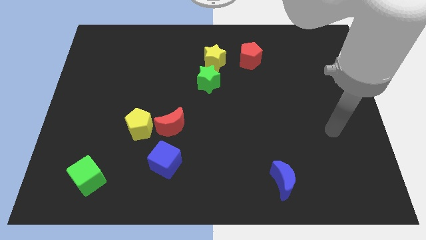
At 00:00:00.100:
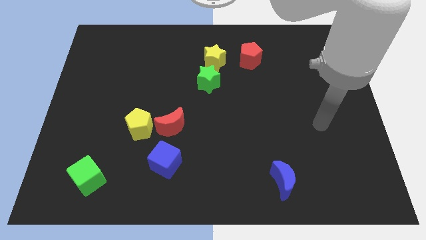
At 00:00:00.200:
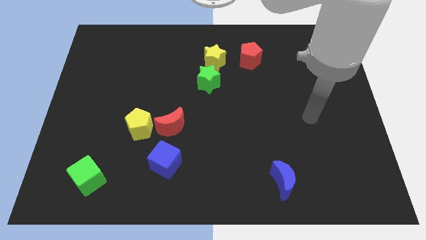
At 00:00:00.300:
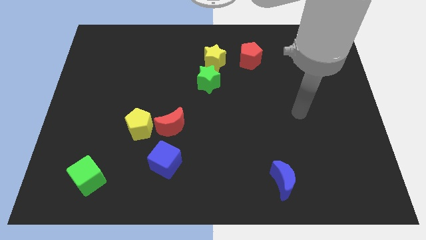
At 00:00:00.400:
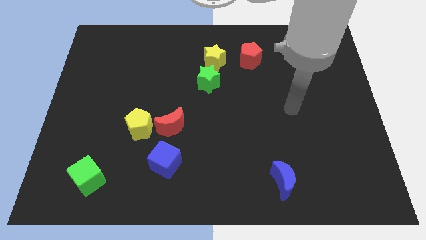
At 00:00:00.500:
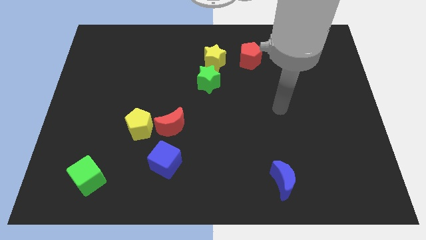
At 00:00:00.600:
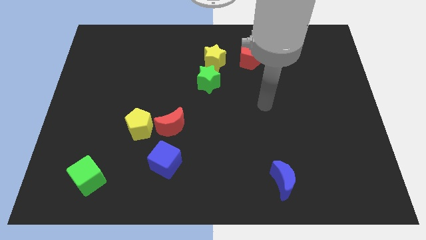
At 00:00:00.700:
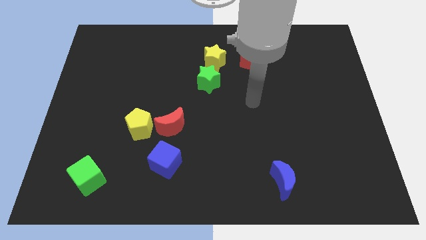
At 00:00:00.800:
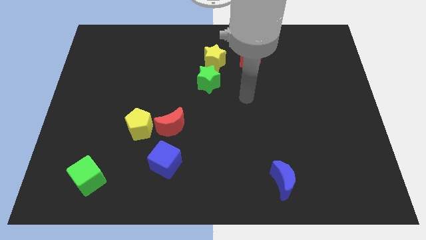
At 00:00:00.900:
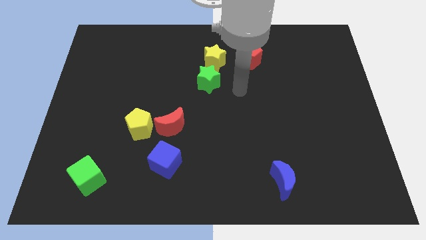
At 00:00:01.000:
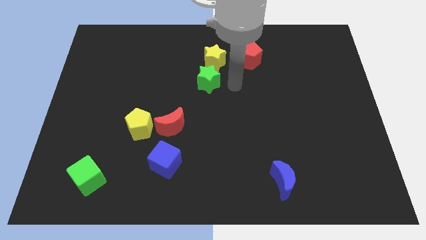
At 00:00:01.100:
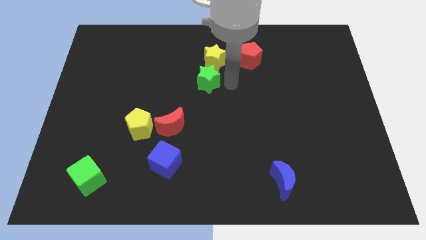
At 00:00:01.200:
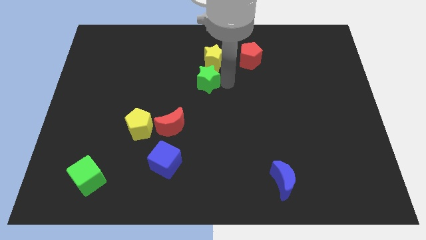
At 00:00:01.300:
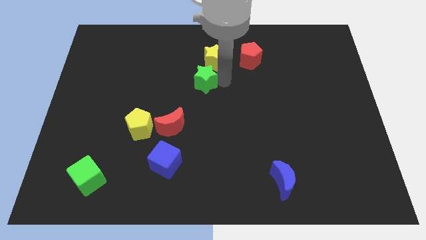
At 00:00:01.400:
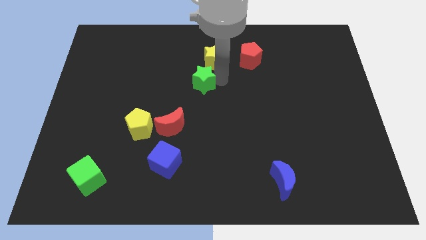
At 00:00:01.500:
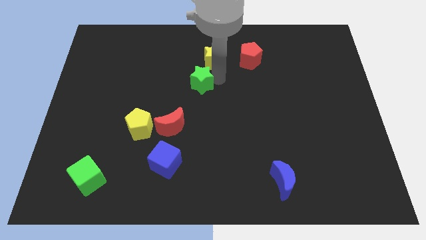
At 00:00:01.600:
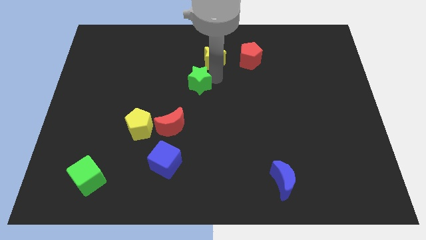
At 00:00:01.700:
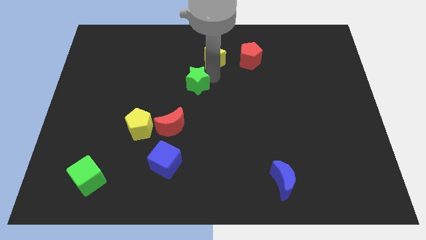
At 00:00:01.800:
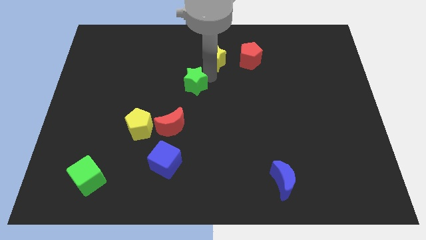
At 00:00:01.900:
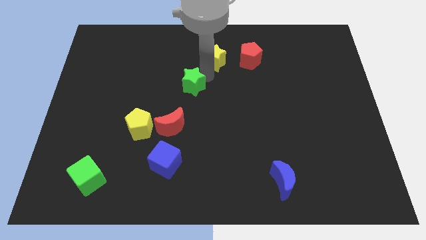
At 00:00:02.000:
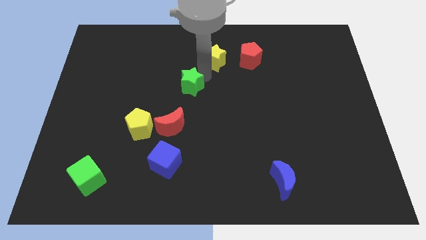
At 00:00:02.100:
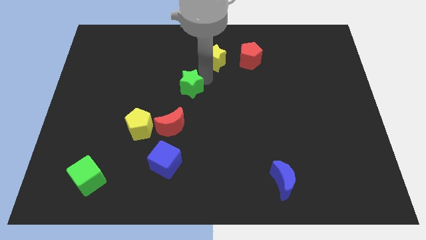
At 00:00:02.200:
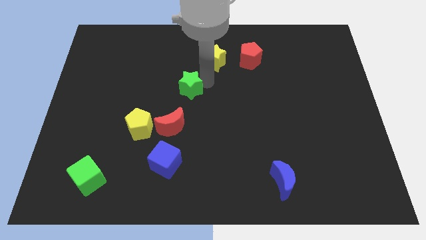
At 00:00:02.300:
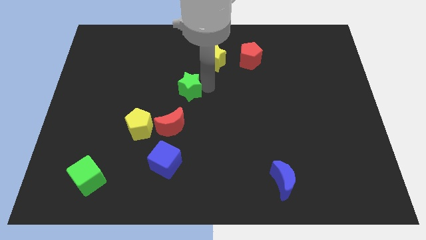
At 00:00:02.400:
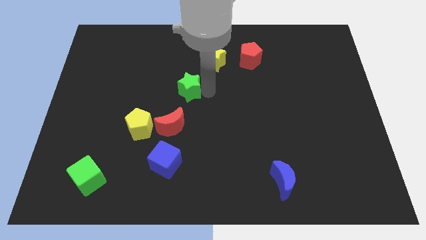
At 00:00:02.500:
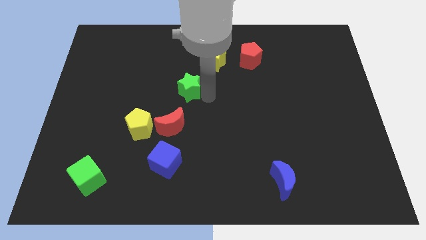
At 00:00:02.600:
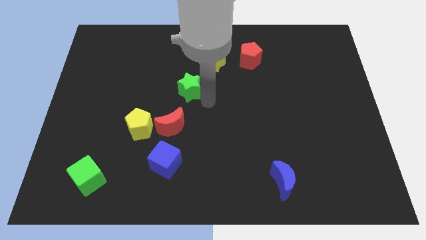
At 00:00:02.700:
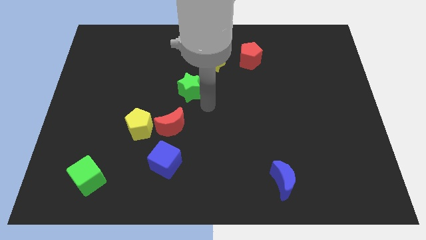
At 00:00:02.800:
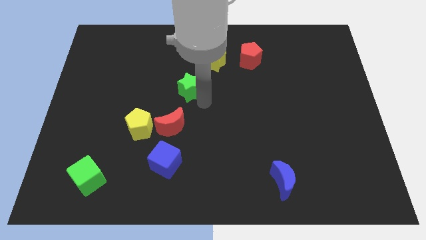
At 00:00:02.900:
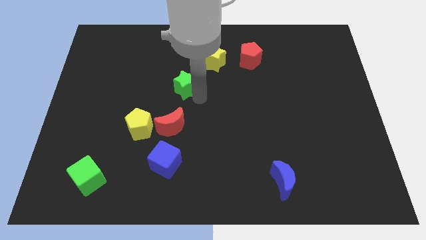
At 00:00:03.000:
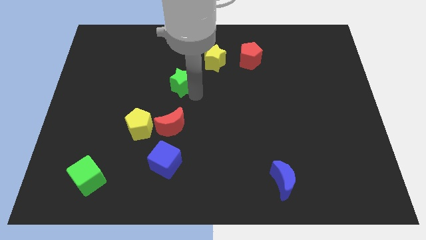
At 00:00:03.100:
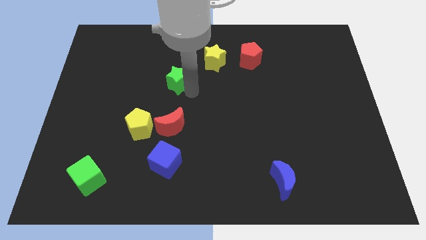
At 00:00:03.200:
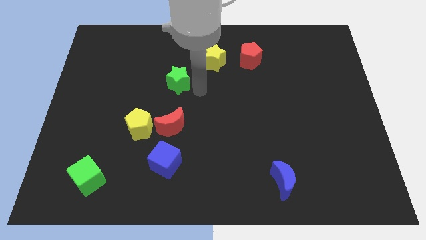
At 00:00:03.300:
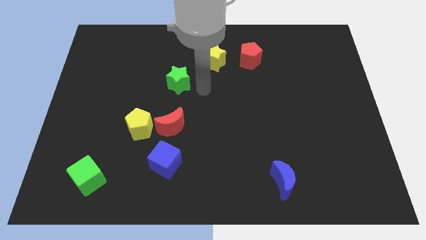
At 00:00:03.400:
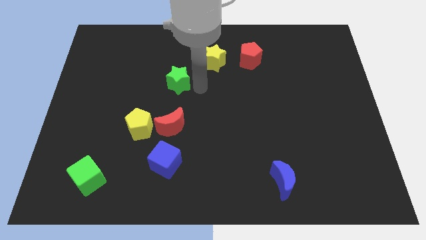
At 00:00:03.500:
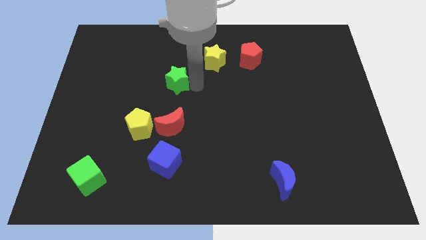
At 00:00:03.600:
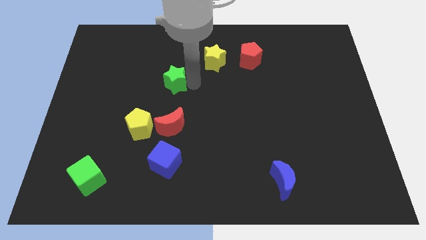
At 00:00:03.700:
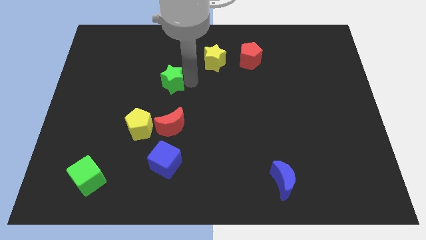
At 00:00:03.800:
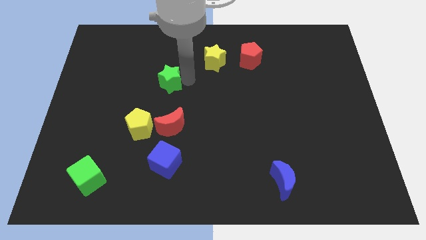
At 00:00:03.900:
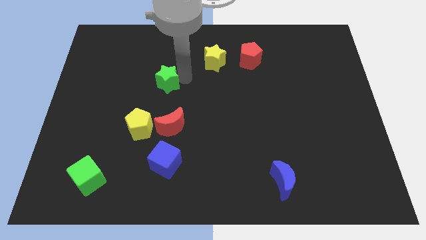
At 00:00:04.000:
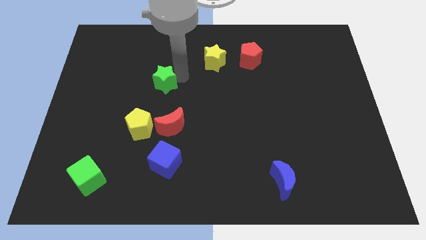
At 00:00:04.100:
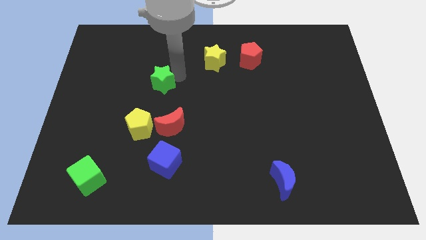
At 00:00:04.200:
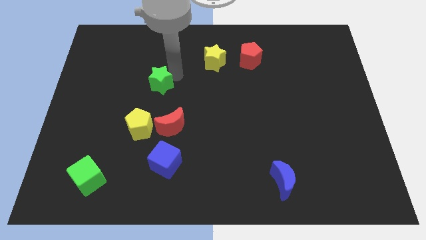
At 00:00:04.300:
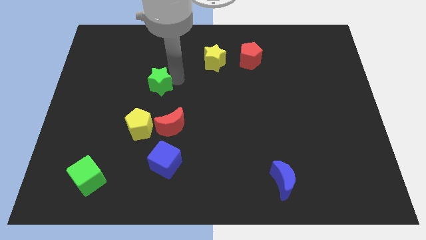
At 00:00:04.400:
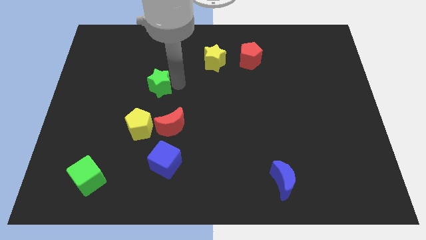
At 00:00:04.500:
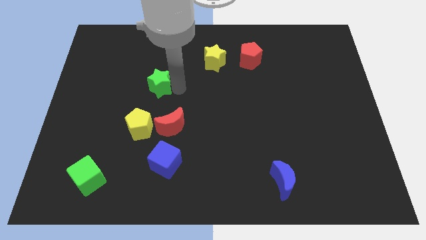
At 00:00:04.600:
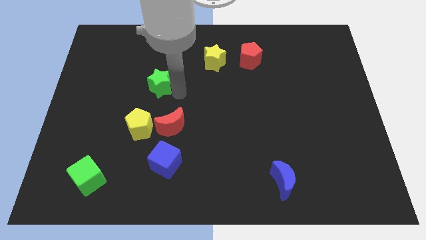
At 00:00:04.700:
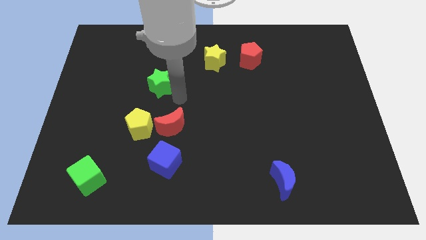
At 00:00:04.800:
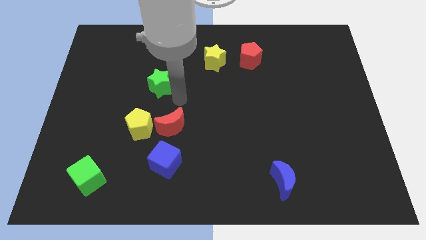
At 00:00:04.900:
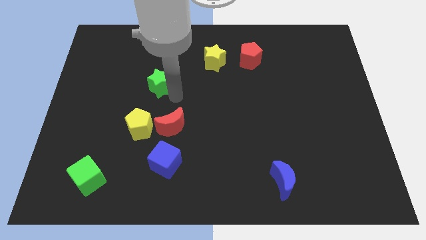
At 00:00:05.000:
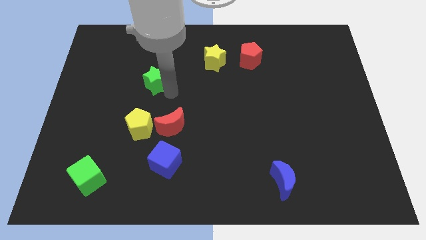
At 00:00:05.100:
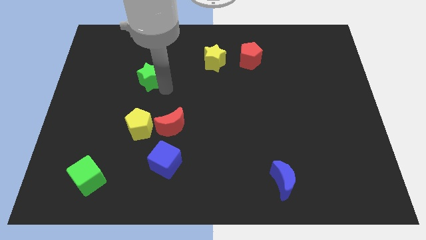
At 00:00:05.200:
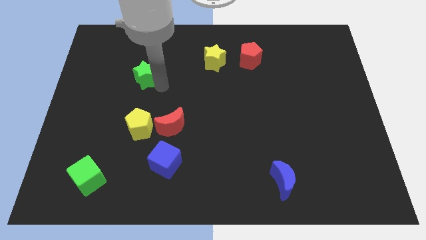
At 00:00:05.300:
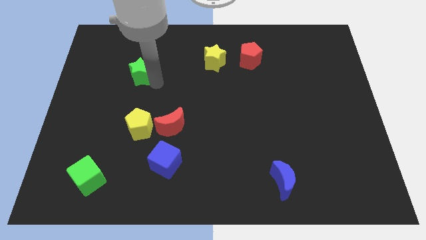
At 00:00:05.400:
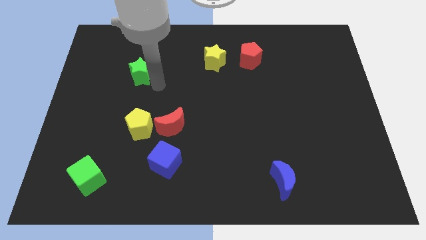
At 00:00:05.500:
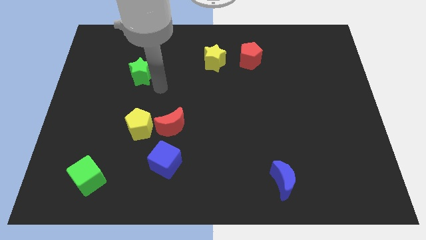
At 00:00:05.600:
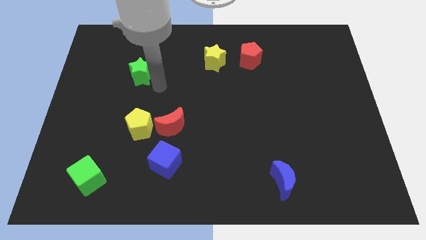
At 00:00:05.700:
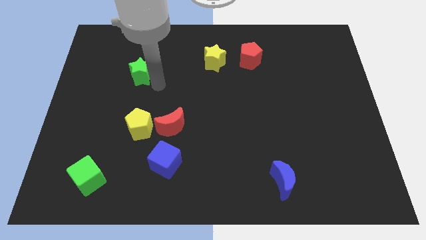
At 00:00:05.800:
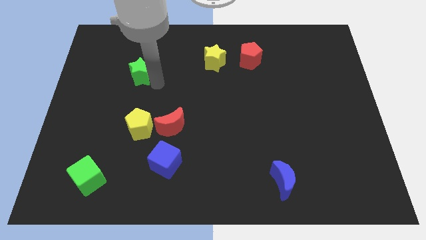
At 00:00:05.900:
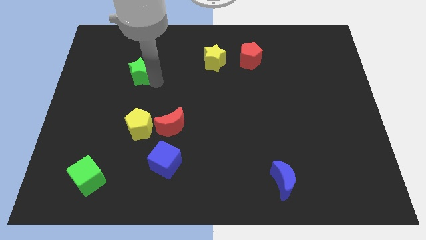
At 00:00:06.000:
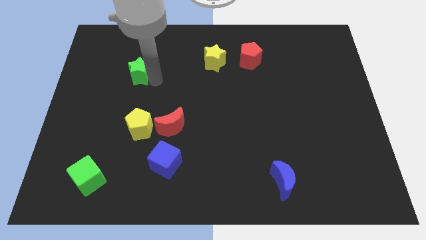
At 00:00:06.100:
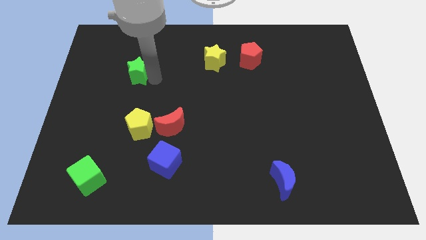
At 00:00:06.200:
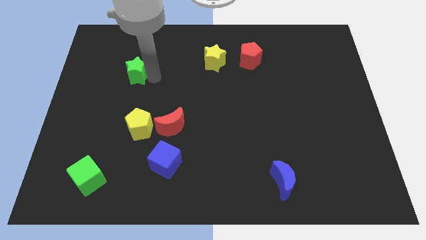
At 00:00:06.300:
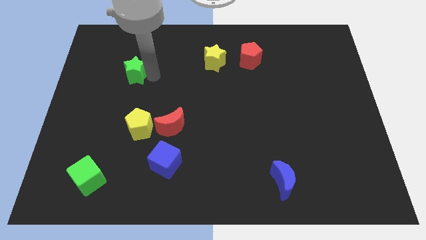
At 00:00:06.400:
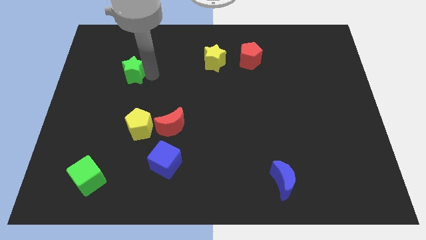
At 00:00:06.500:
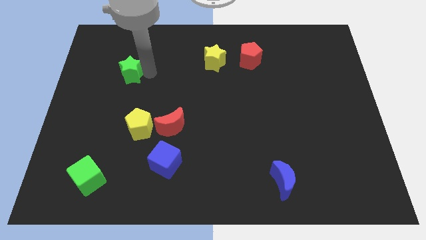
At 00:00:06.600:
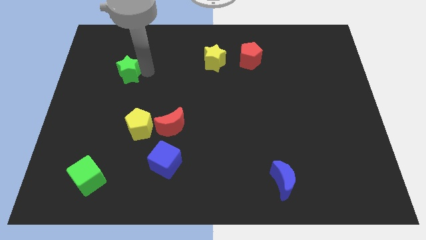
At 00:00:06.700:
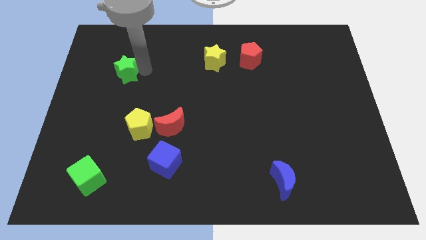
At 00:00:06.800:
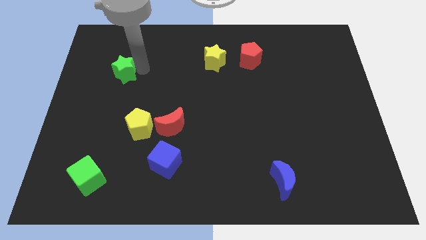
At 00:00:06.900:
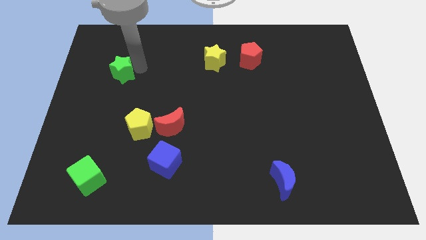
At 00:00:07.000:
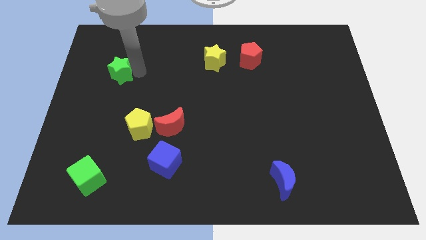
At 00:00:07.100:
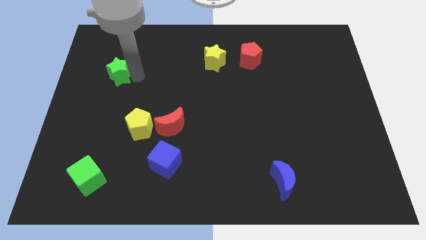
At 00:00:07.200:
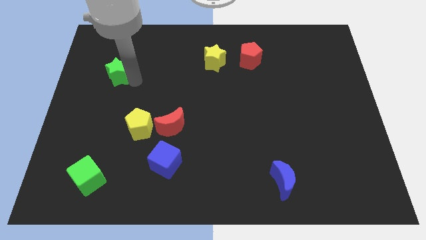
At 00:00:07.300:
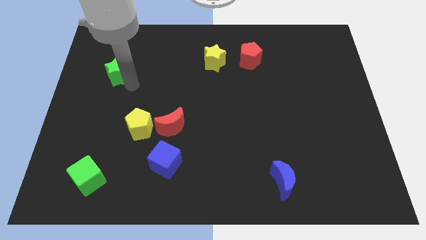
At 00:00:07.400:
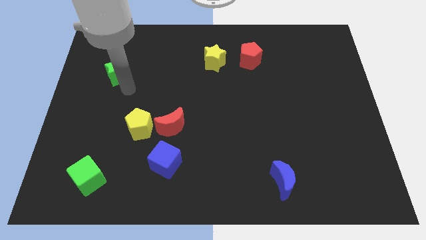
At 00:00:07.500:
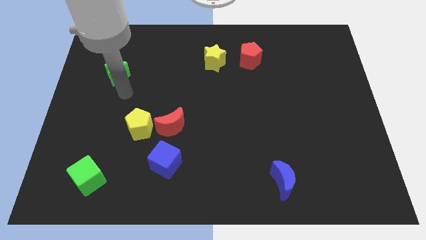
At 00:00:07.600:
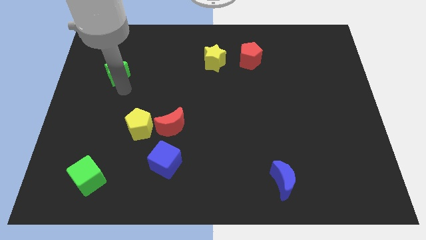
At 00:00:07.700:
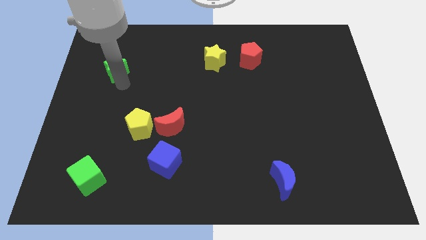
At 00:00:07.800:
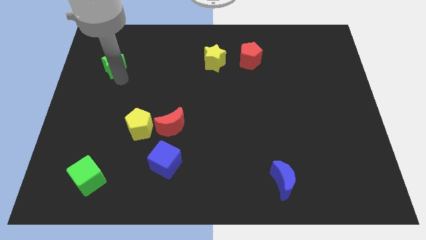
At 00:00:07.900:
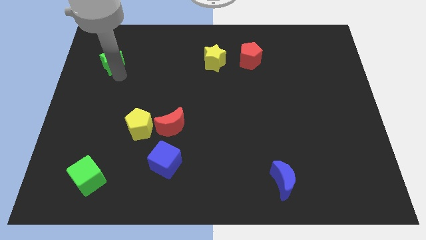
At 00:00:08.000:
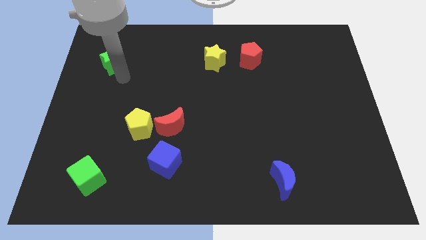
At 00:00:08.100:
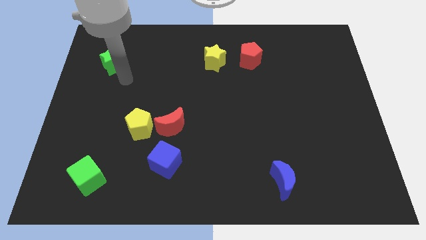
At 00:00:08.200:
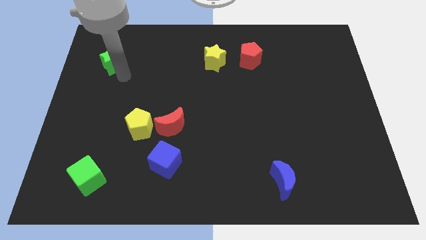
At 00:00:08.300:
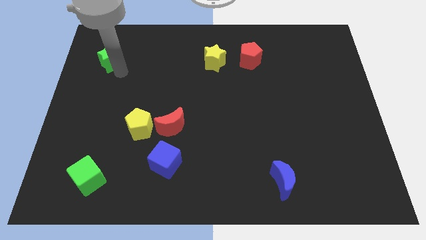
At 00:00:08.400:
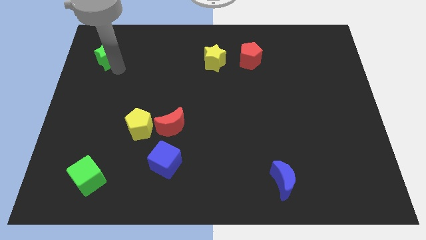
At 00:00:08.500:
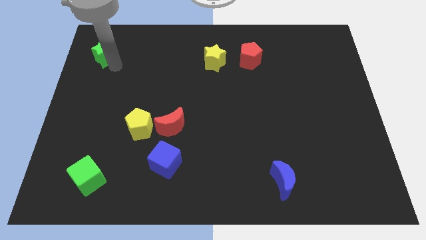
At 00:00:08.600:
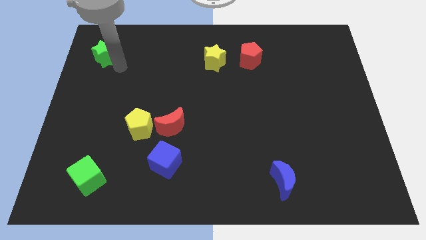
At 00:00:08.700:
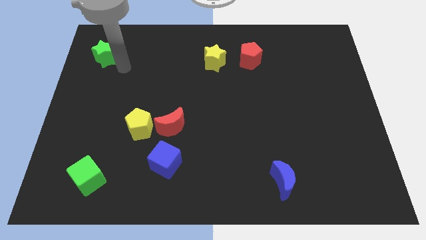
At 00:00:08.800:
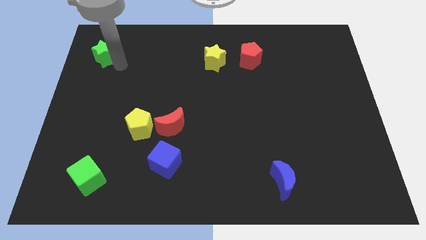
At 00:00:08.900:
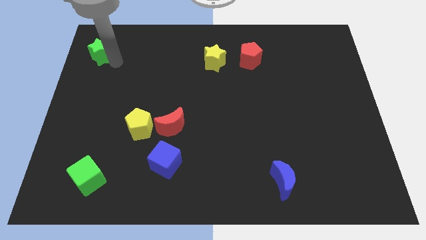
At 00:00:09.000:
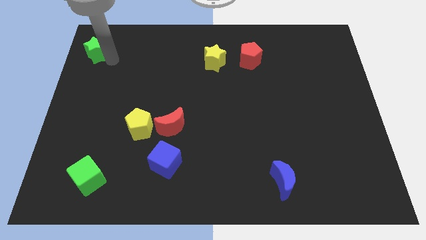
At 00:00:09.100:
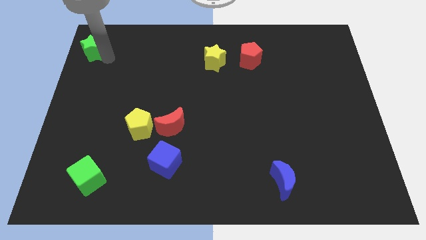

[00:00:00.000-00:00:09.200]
push the green star to the top left
